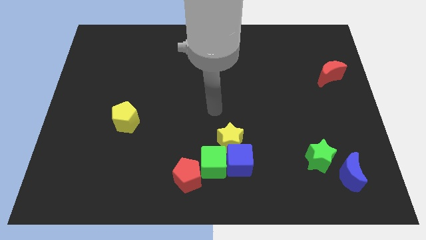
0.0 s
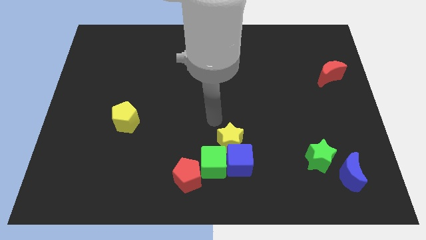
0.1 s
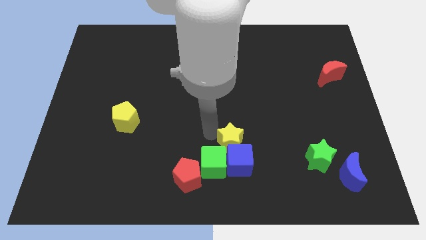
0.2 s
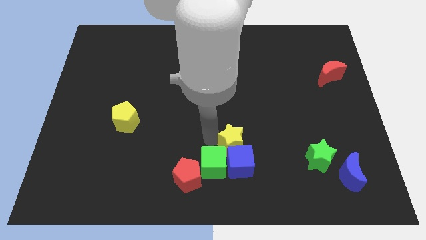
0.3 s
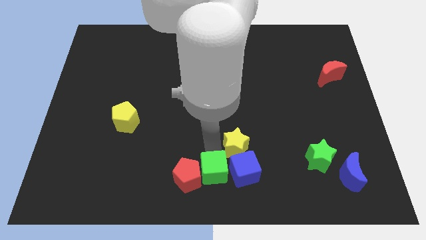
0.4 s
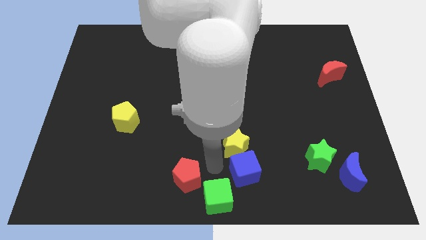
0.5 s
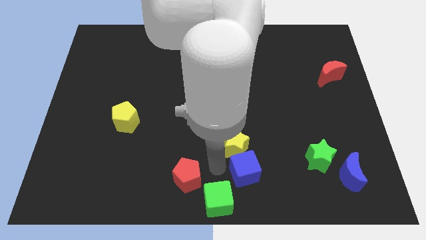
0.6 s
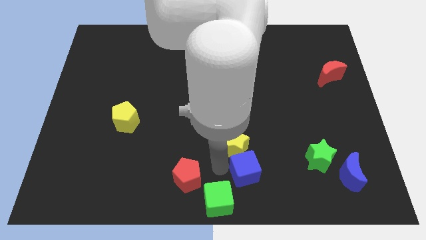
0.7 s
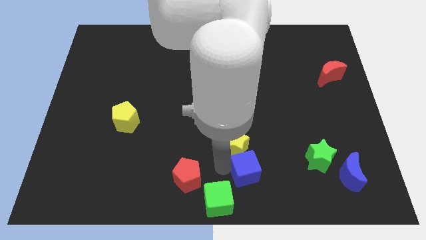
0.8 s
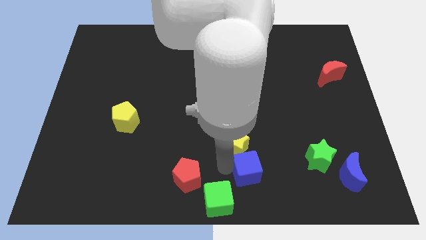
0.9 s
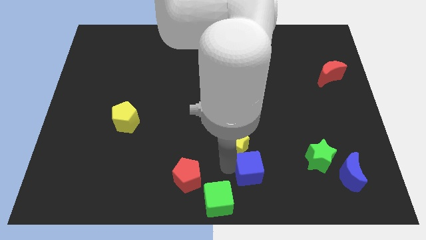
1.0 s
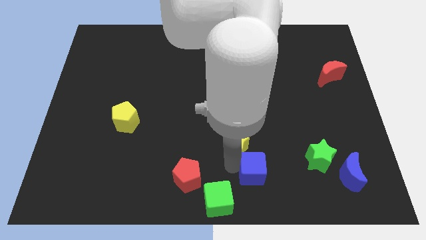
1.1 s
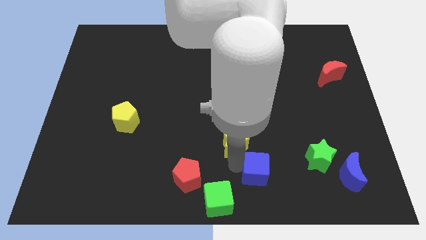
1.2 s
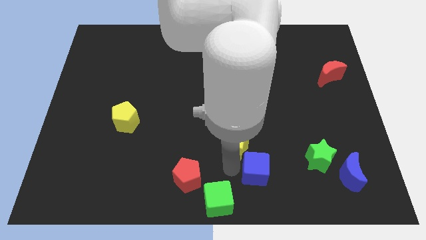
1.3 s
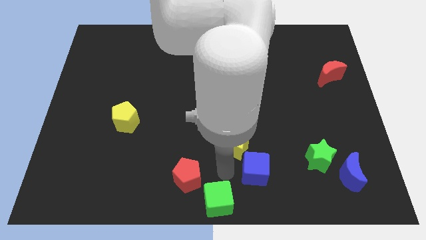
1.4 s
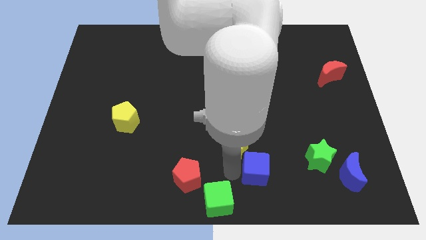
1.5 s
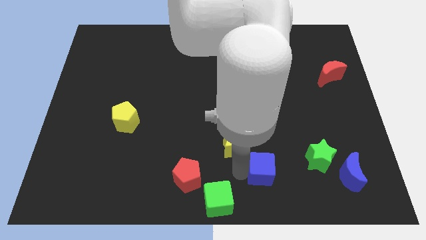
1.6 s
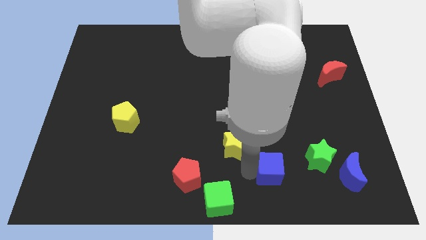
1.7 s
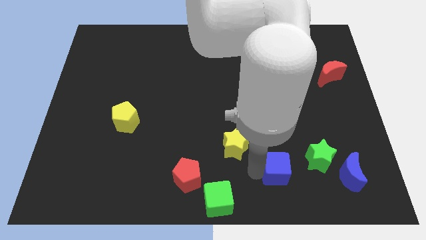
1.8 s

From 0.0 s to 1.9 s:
pull the blue cube apart from the green cube and yellow star

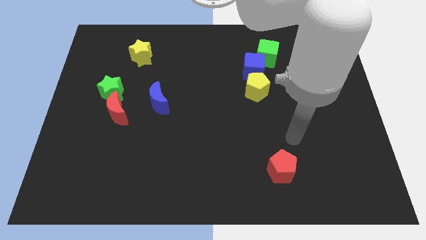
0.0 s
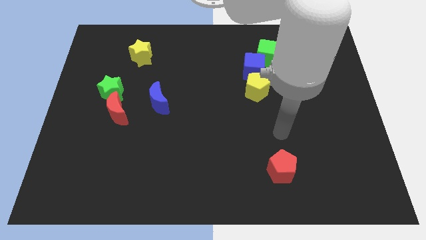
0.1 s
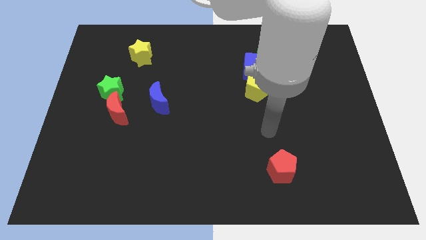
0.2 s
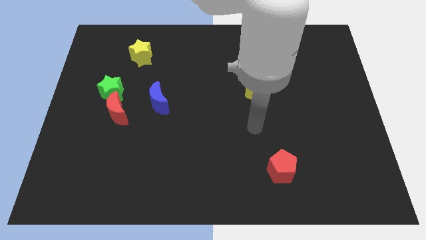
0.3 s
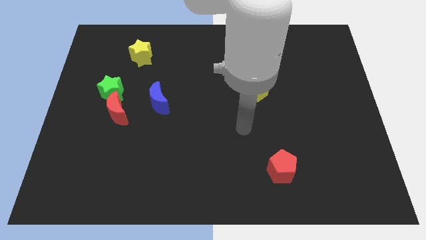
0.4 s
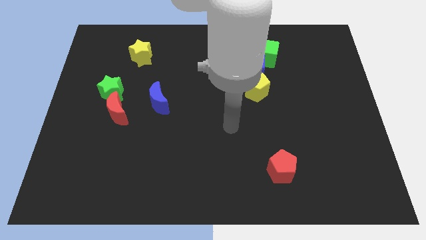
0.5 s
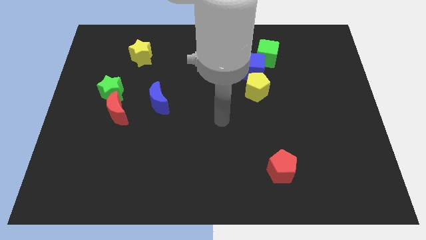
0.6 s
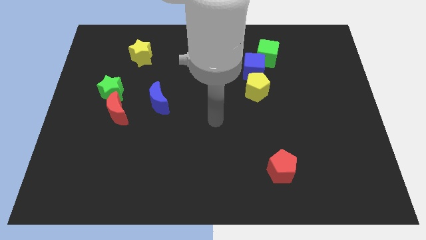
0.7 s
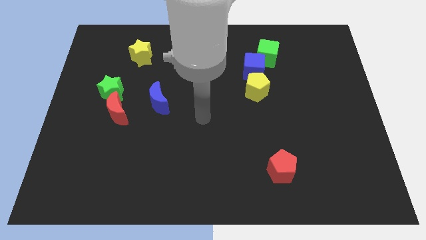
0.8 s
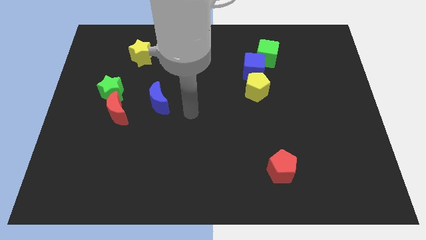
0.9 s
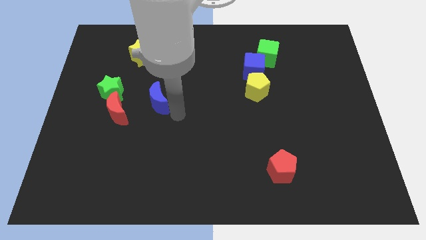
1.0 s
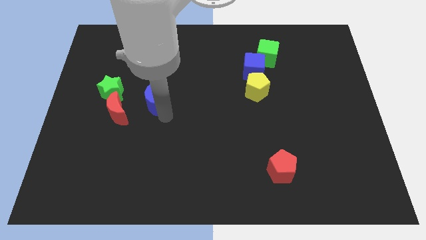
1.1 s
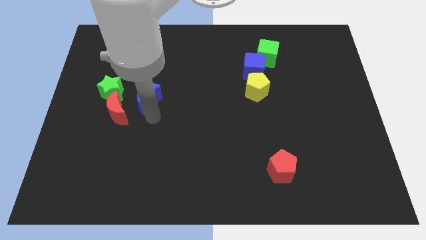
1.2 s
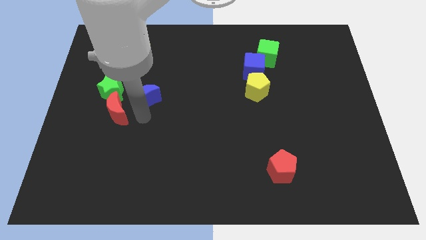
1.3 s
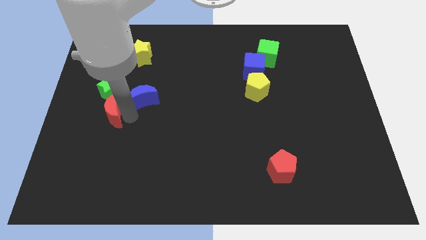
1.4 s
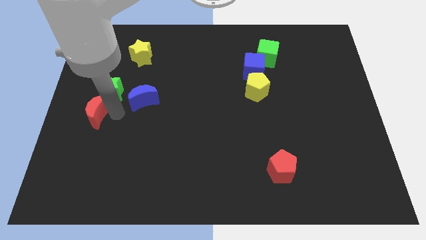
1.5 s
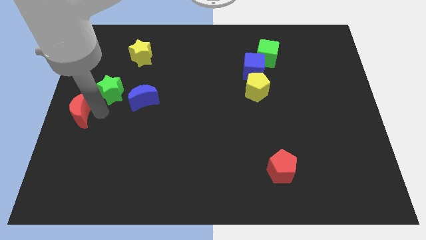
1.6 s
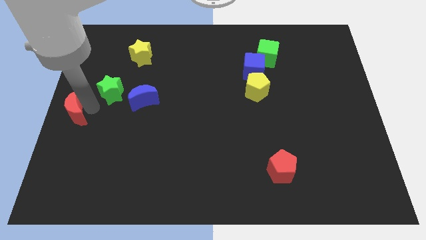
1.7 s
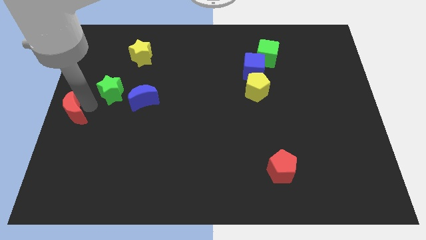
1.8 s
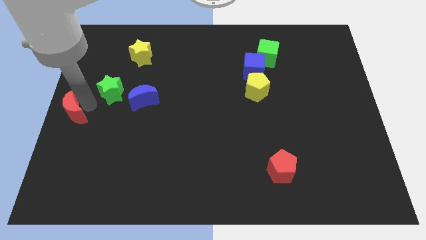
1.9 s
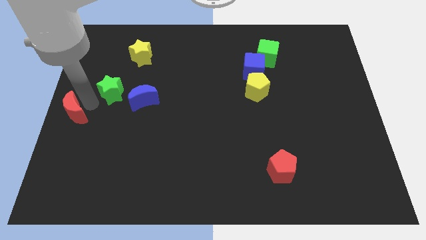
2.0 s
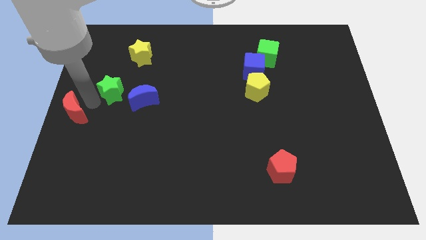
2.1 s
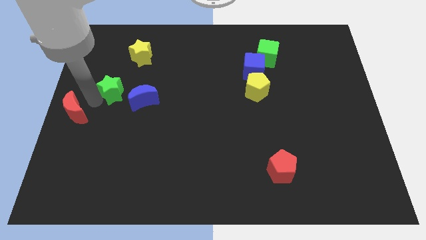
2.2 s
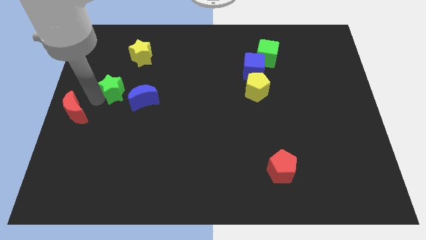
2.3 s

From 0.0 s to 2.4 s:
pull the green star apart from the red moon

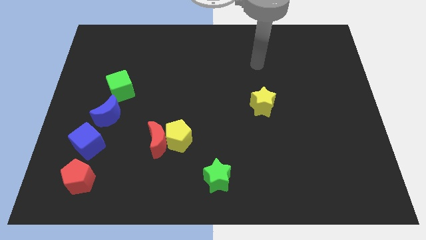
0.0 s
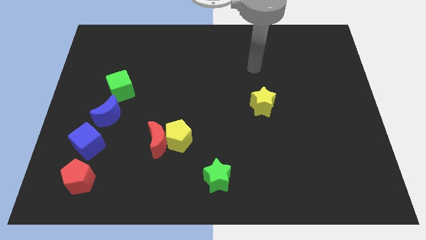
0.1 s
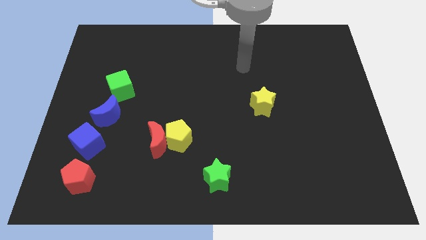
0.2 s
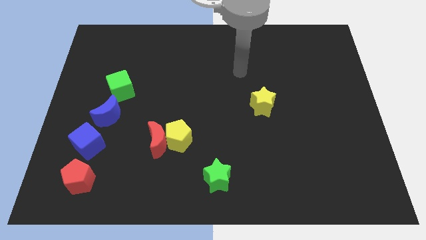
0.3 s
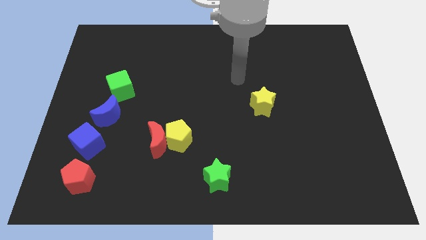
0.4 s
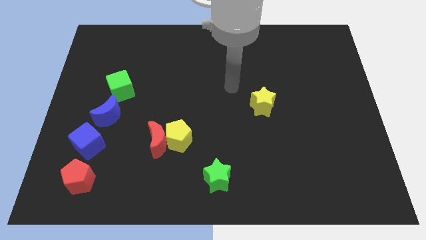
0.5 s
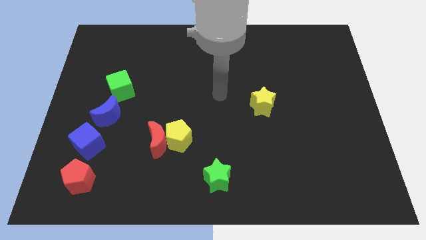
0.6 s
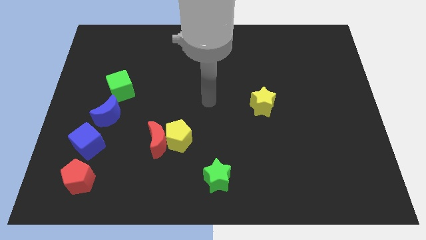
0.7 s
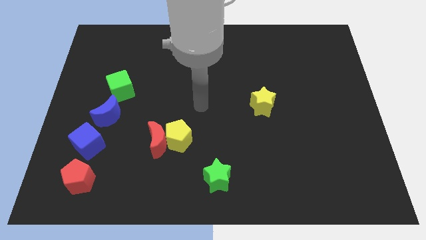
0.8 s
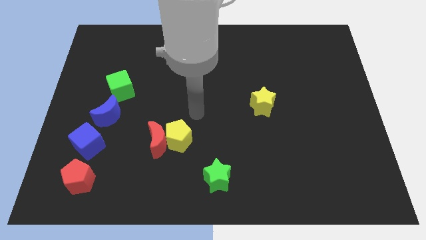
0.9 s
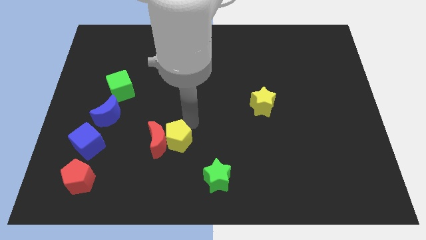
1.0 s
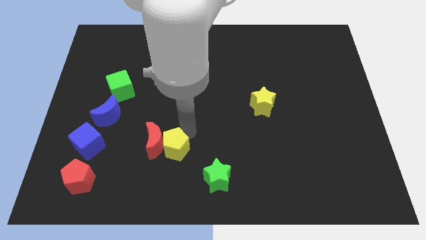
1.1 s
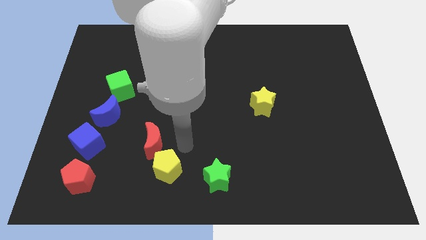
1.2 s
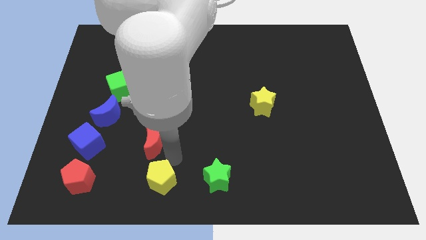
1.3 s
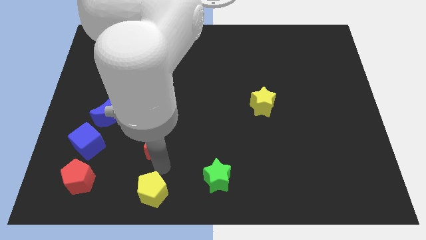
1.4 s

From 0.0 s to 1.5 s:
move the red moon away from the yellow pentagon
